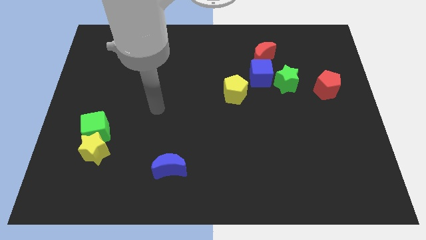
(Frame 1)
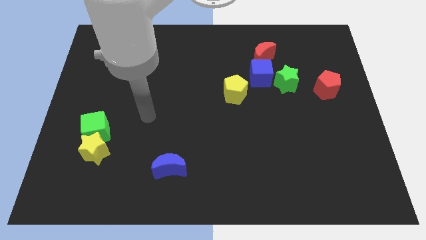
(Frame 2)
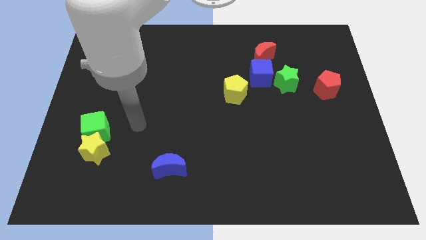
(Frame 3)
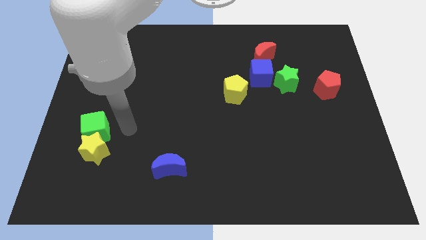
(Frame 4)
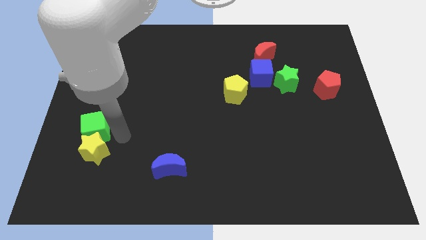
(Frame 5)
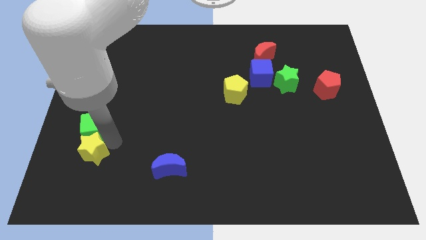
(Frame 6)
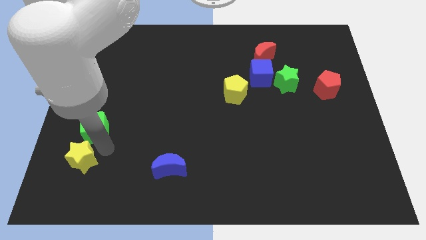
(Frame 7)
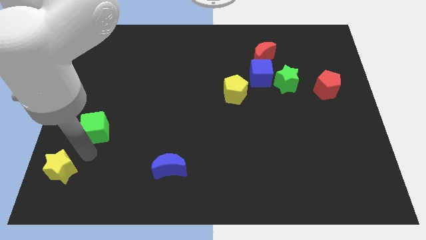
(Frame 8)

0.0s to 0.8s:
pull the green cube apart from the yellow star

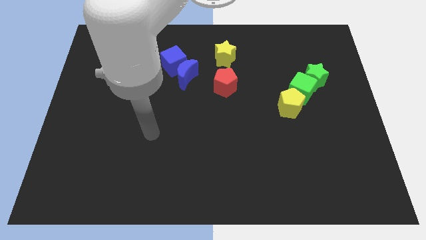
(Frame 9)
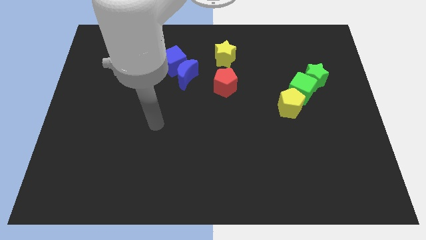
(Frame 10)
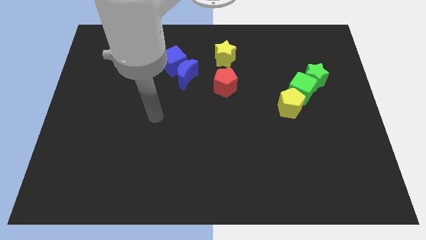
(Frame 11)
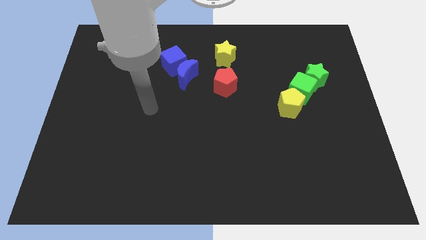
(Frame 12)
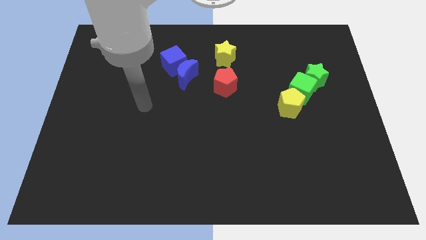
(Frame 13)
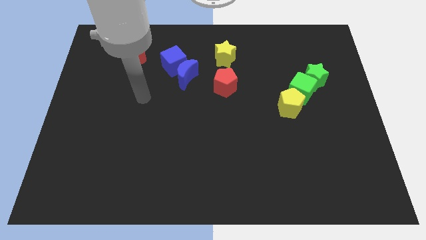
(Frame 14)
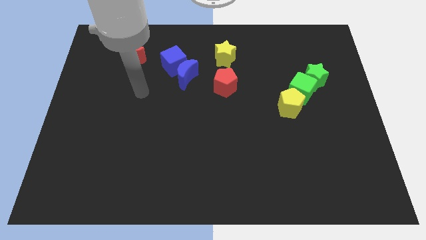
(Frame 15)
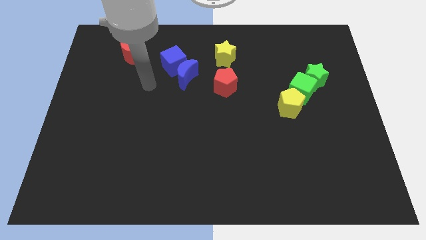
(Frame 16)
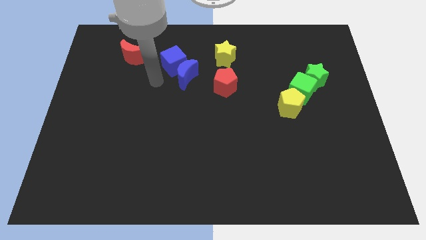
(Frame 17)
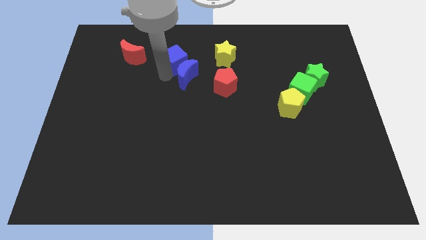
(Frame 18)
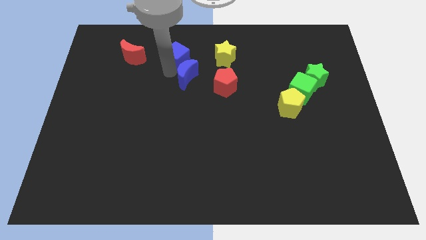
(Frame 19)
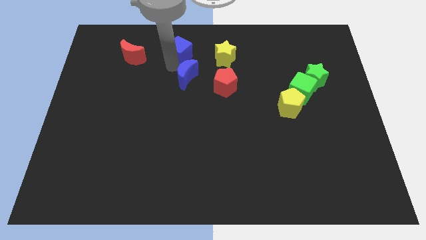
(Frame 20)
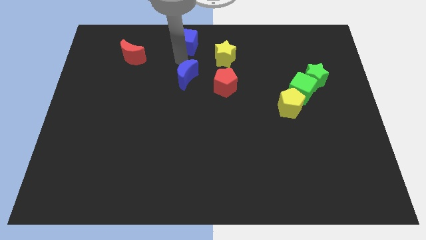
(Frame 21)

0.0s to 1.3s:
separate the blue moon from the blue cube

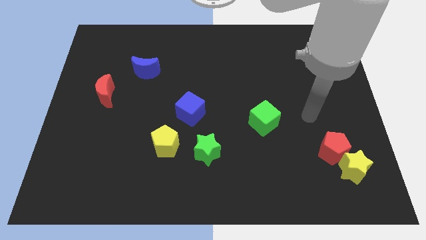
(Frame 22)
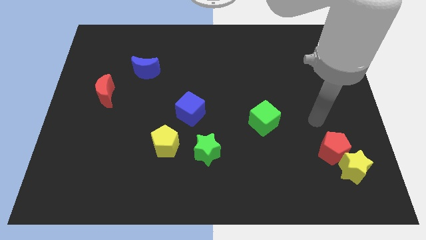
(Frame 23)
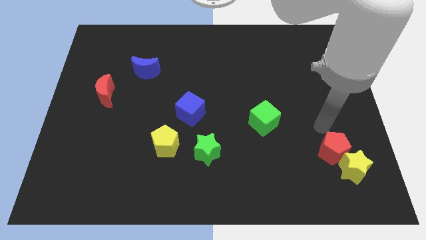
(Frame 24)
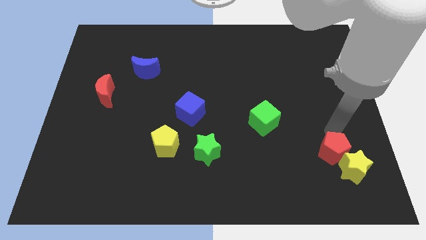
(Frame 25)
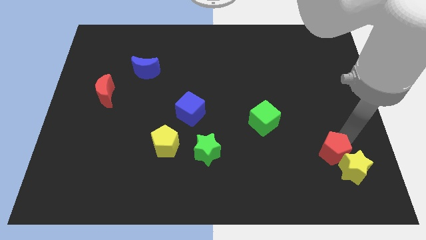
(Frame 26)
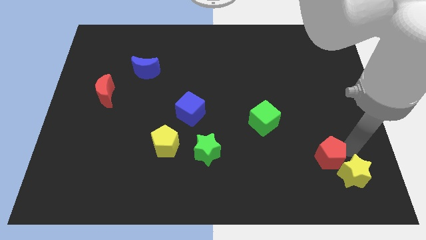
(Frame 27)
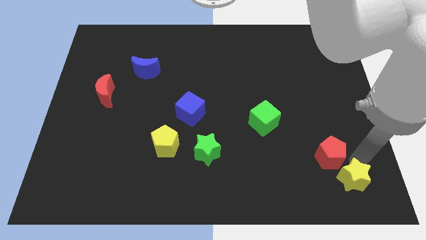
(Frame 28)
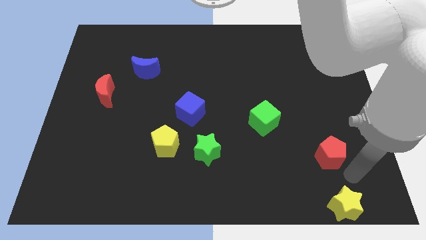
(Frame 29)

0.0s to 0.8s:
separate the red pentagon from the yellow star

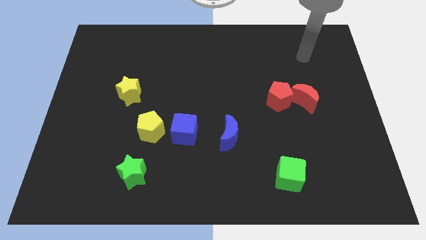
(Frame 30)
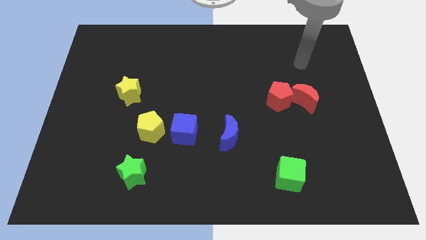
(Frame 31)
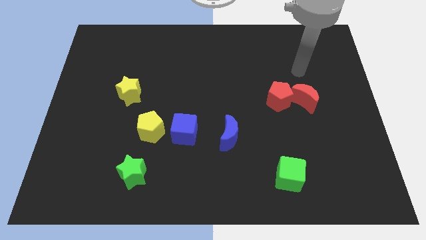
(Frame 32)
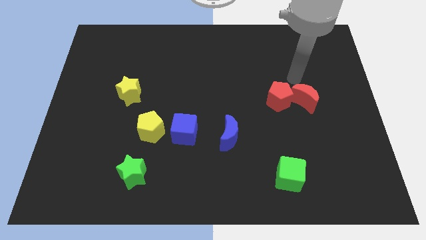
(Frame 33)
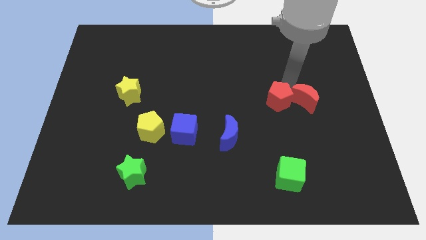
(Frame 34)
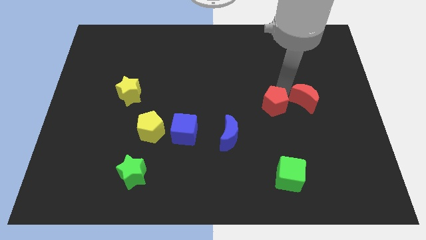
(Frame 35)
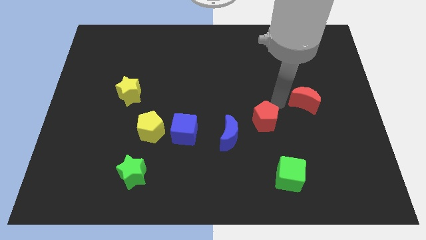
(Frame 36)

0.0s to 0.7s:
move the red moon away from the red pentagon

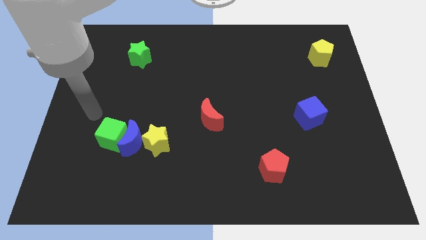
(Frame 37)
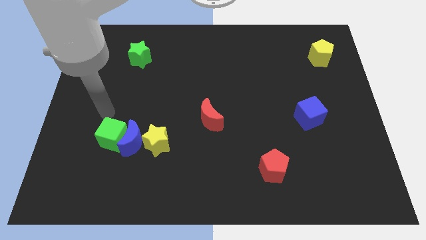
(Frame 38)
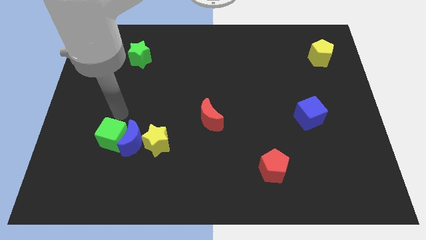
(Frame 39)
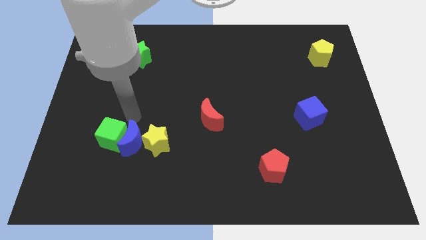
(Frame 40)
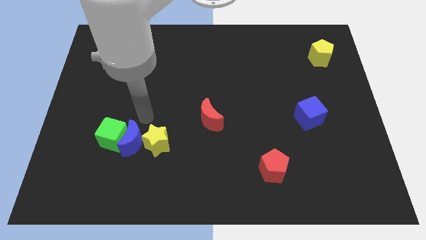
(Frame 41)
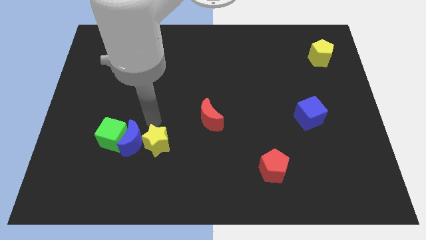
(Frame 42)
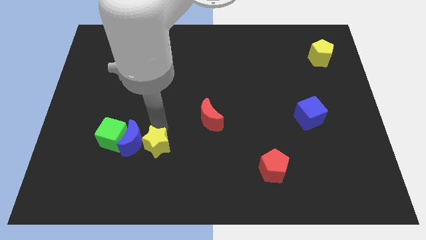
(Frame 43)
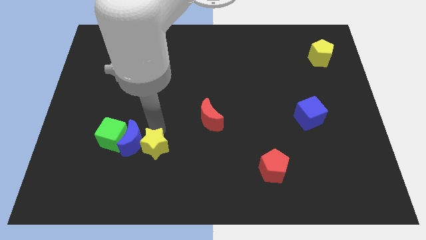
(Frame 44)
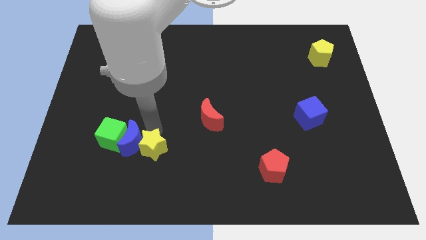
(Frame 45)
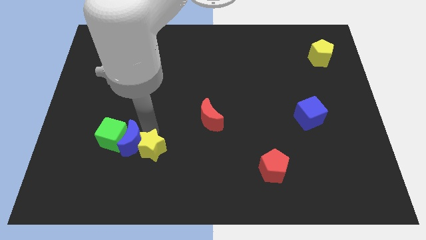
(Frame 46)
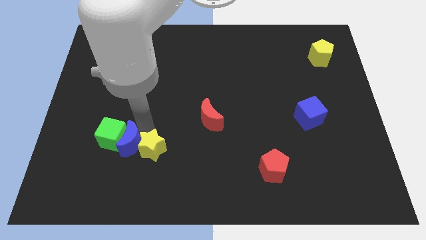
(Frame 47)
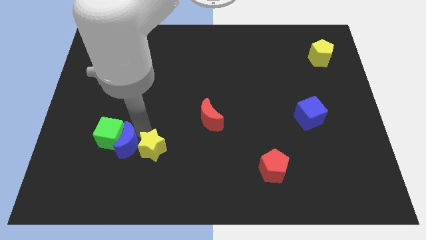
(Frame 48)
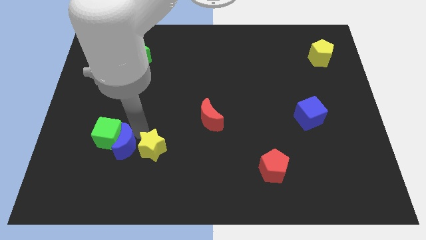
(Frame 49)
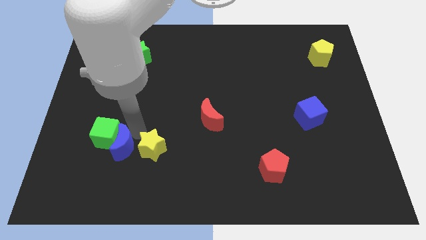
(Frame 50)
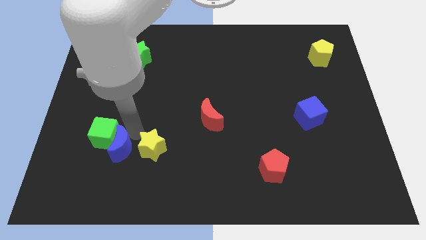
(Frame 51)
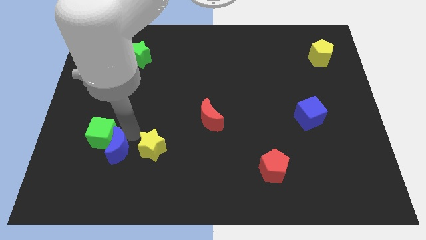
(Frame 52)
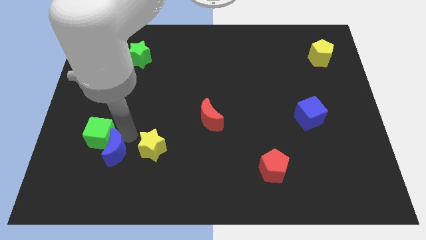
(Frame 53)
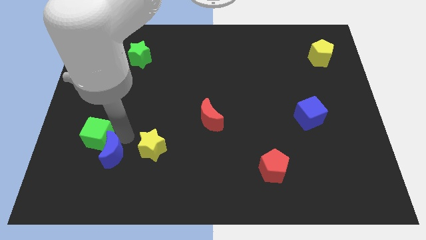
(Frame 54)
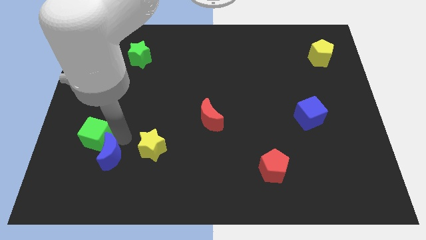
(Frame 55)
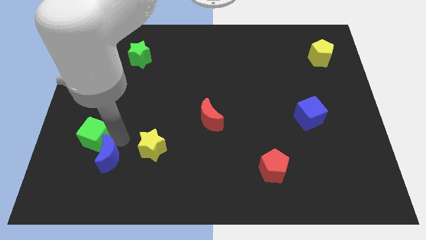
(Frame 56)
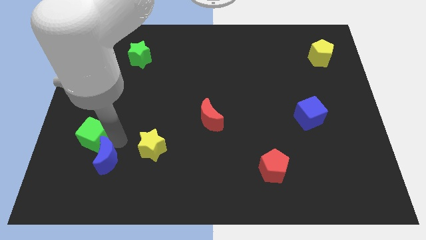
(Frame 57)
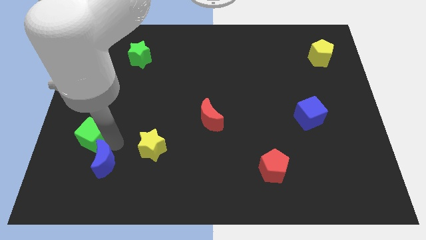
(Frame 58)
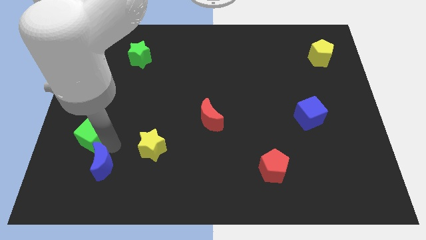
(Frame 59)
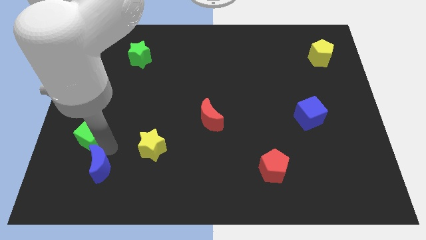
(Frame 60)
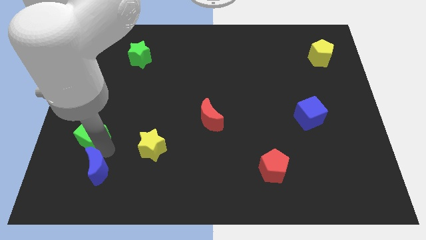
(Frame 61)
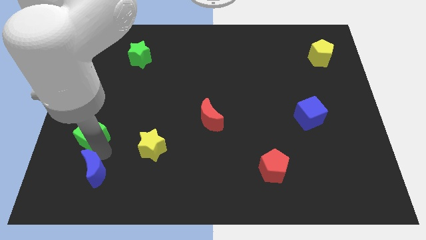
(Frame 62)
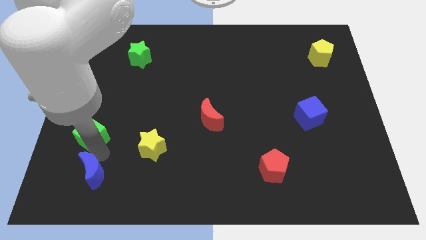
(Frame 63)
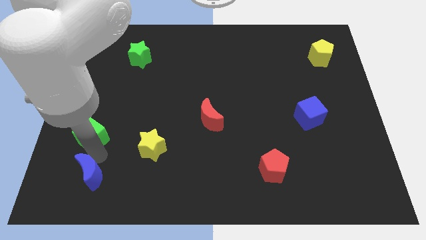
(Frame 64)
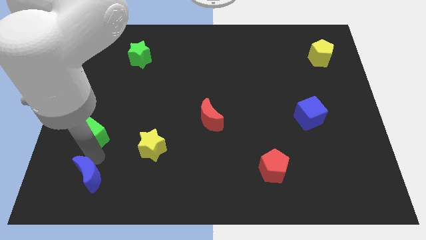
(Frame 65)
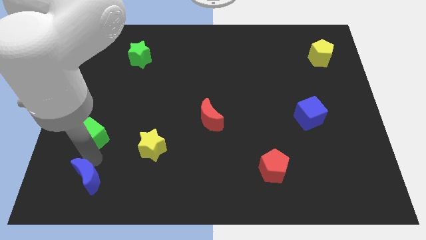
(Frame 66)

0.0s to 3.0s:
pull the blue moon apart from the green cube and yellow star

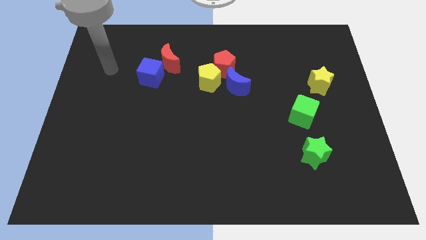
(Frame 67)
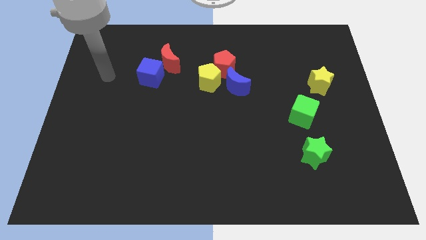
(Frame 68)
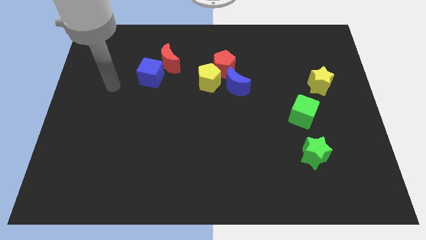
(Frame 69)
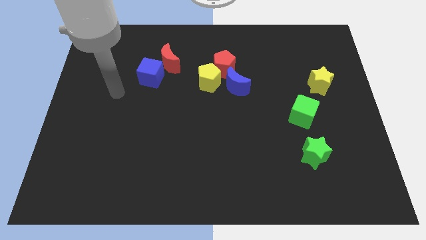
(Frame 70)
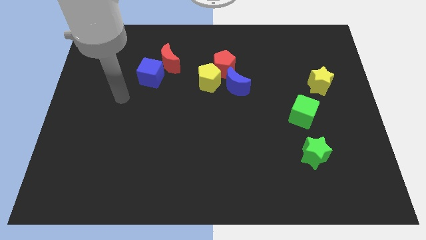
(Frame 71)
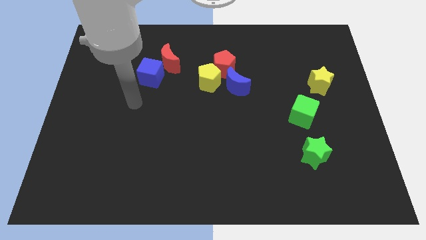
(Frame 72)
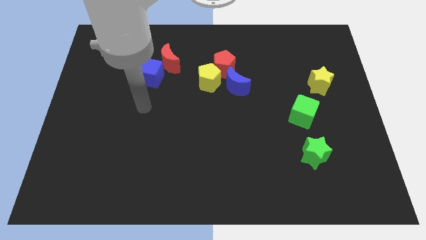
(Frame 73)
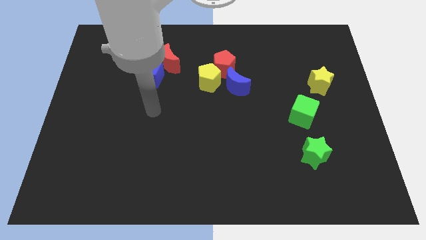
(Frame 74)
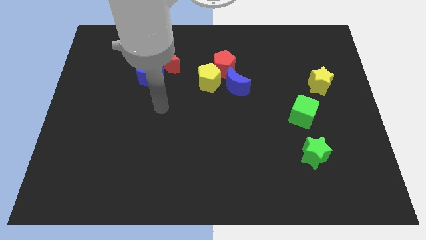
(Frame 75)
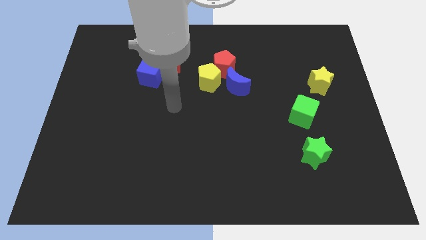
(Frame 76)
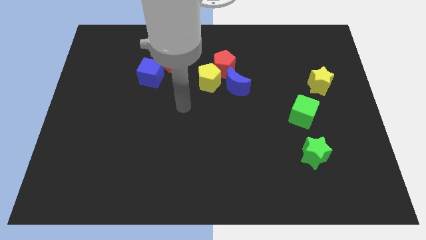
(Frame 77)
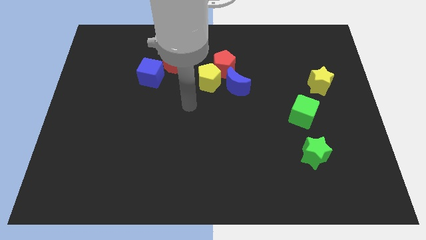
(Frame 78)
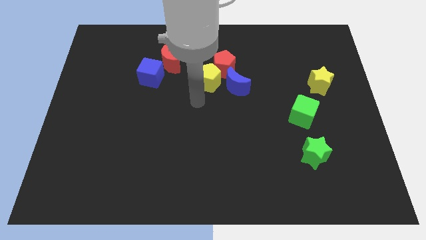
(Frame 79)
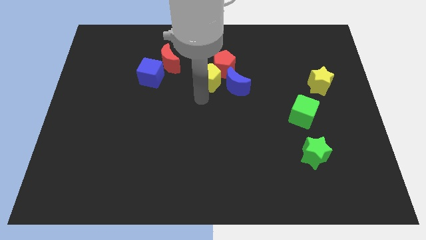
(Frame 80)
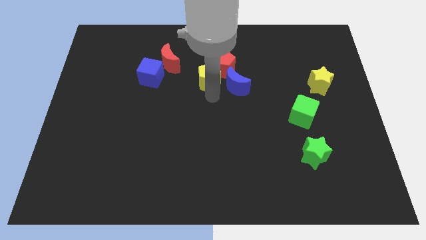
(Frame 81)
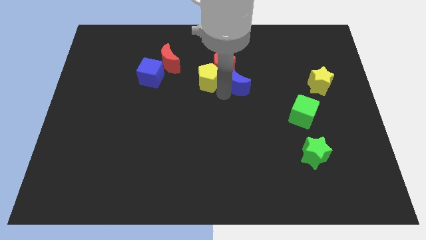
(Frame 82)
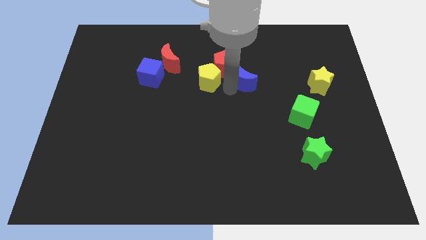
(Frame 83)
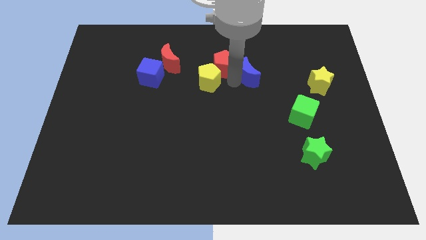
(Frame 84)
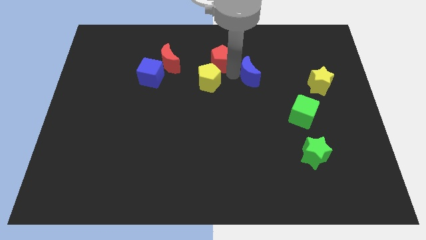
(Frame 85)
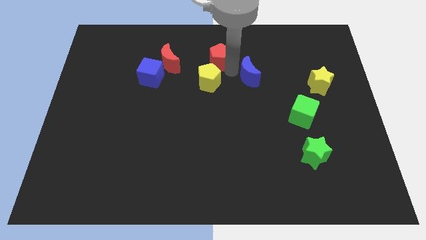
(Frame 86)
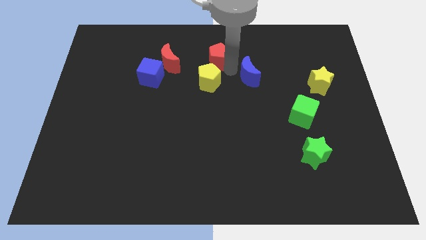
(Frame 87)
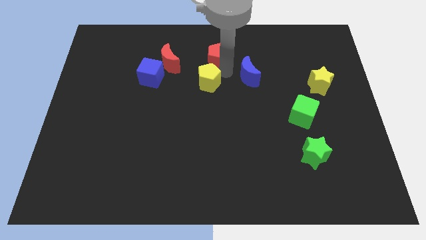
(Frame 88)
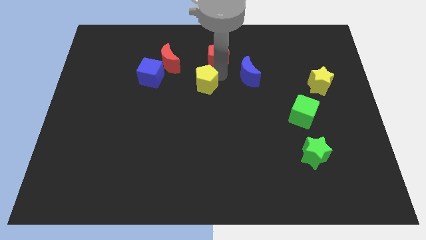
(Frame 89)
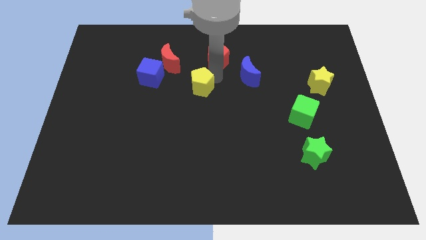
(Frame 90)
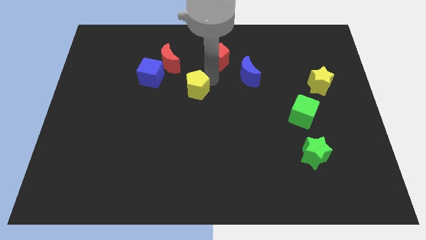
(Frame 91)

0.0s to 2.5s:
pull the yellow pentagon apart from the red pentagon and blue moon

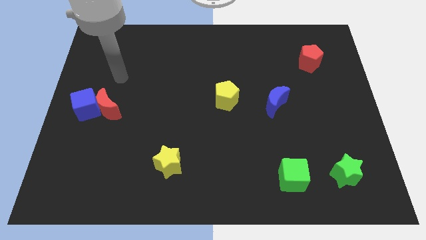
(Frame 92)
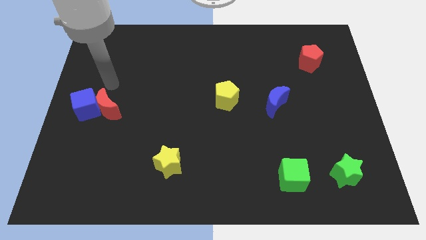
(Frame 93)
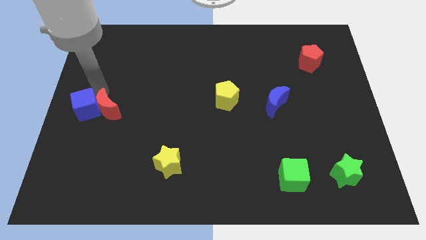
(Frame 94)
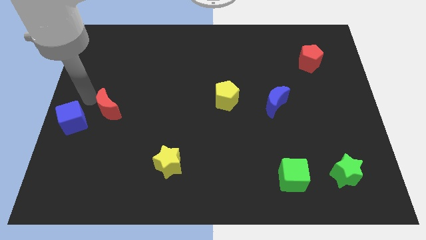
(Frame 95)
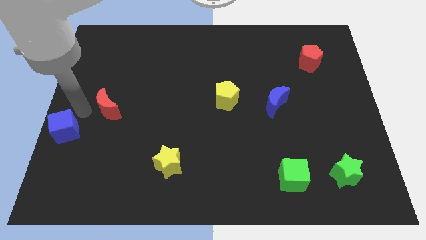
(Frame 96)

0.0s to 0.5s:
separate the red moon from the blue cube
